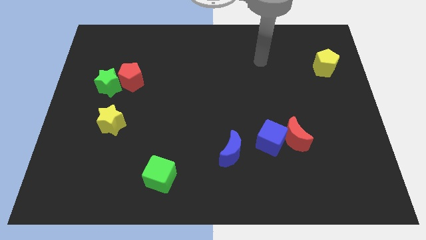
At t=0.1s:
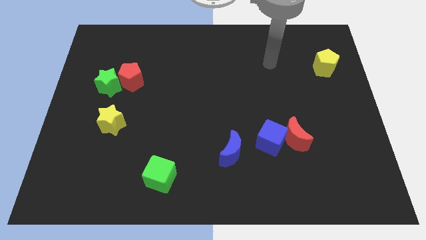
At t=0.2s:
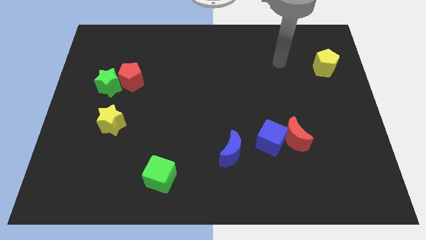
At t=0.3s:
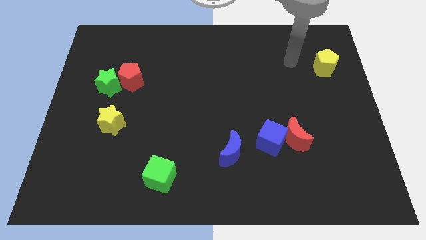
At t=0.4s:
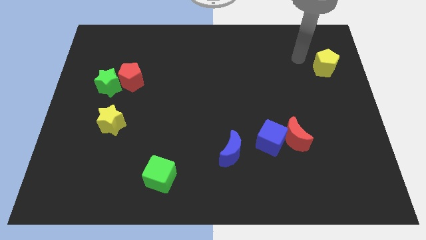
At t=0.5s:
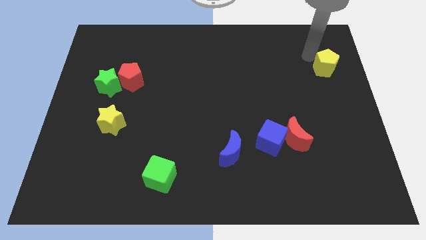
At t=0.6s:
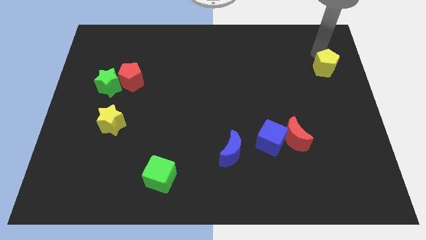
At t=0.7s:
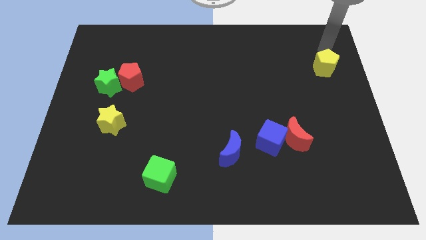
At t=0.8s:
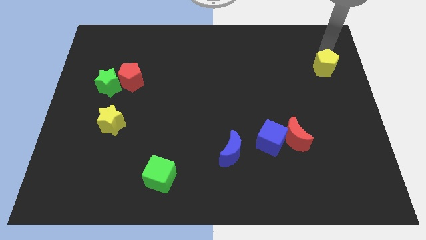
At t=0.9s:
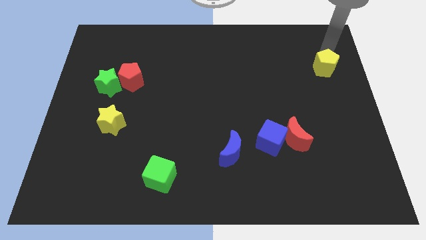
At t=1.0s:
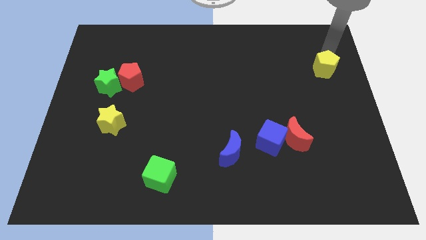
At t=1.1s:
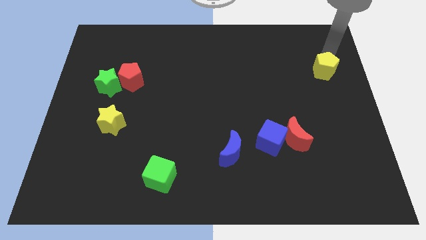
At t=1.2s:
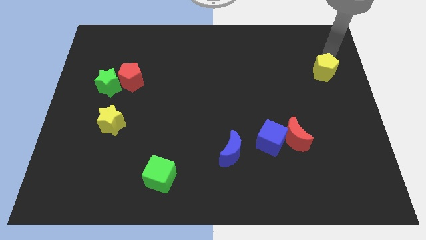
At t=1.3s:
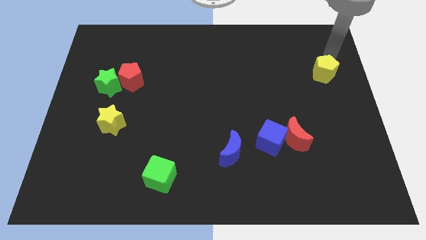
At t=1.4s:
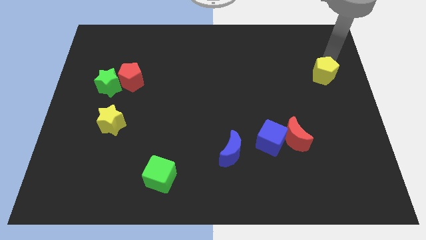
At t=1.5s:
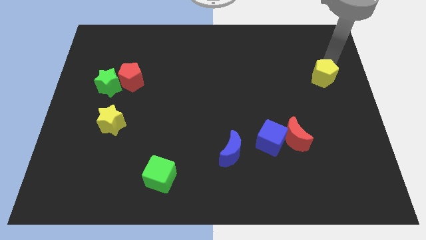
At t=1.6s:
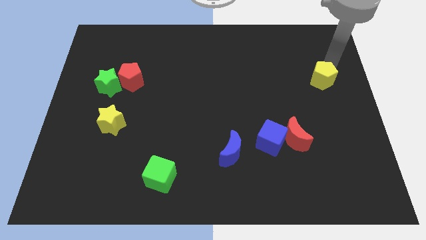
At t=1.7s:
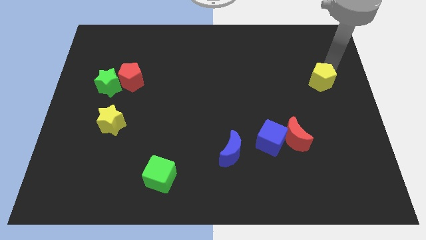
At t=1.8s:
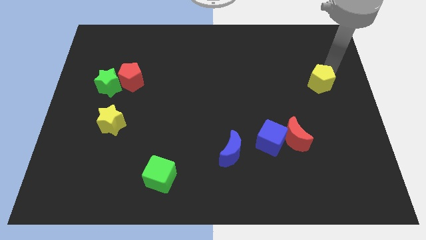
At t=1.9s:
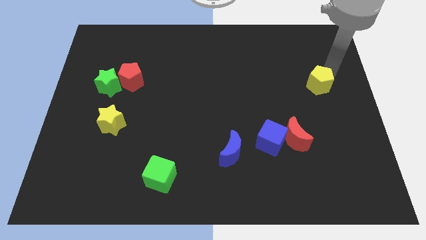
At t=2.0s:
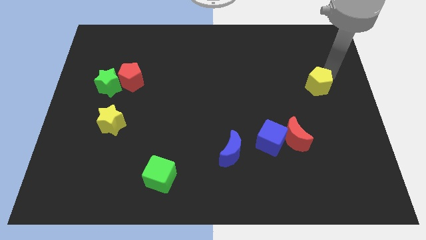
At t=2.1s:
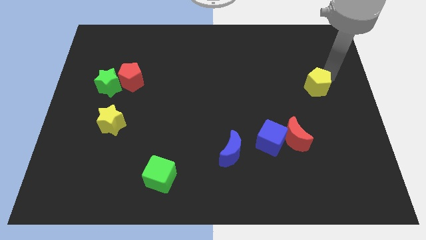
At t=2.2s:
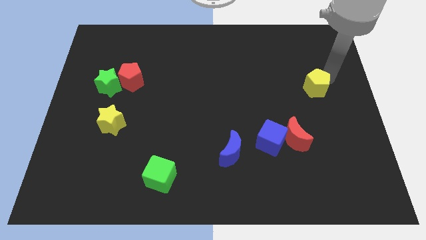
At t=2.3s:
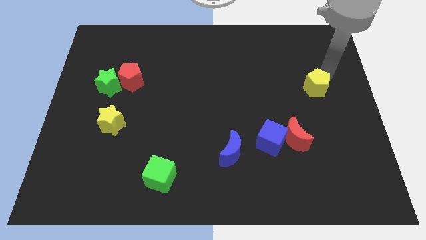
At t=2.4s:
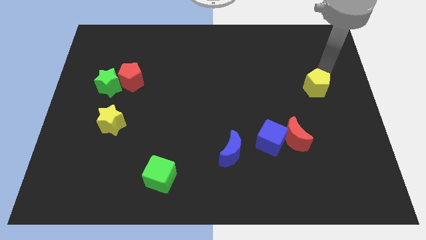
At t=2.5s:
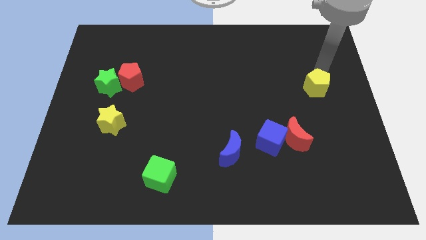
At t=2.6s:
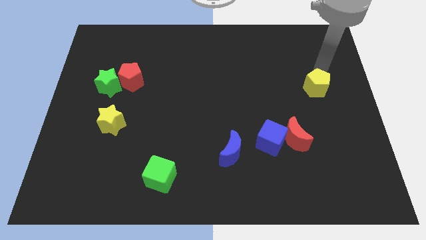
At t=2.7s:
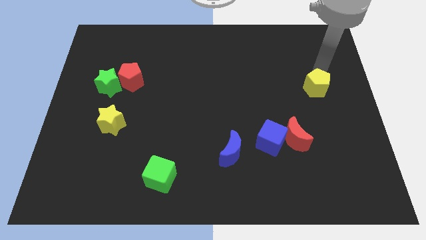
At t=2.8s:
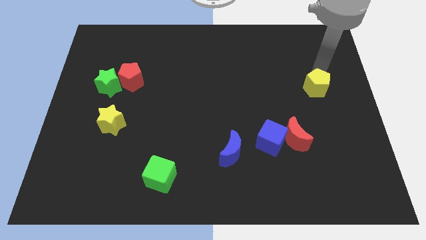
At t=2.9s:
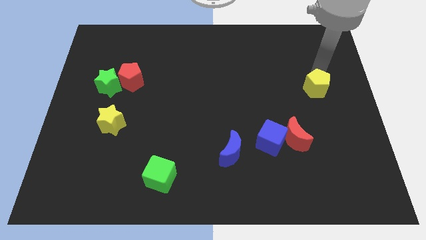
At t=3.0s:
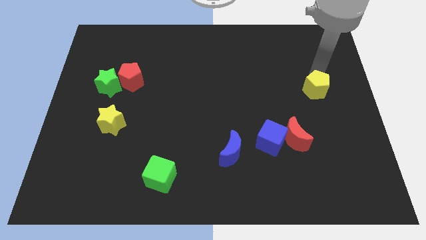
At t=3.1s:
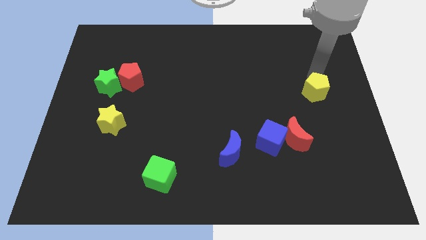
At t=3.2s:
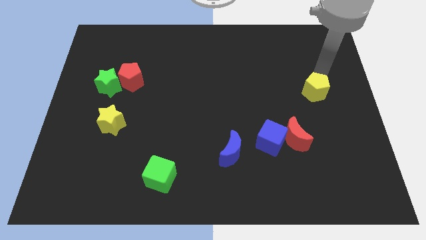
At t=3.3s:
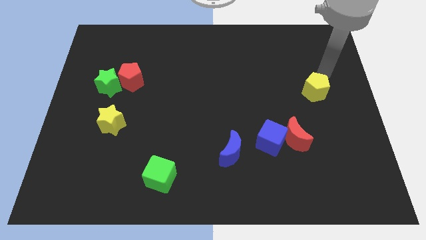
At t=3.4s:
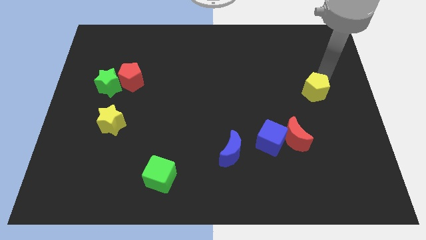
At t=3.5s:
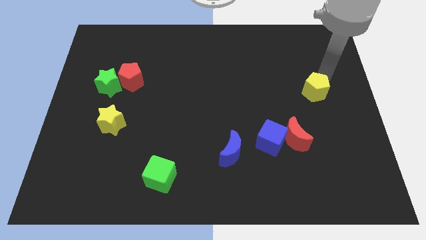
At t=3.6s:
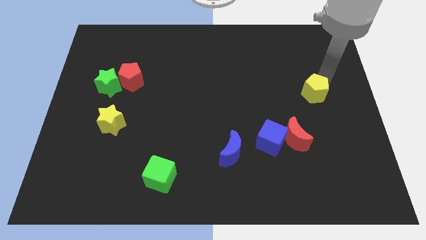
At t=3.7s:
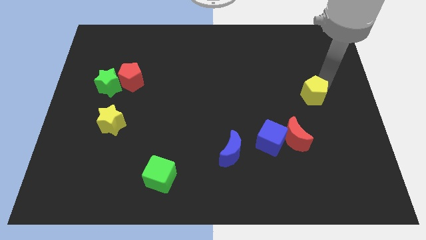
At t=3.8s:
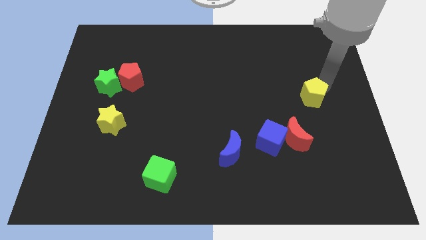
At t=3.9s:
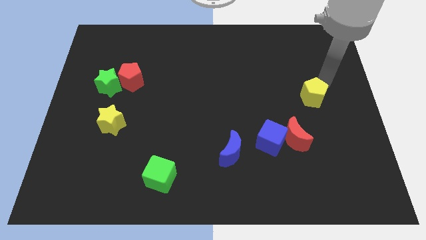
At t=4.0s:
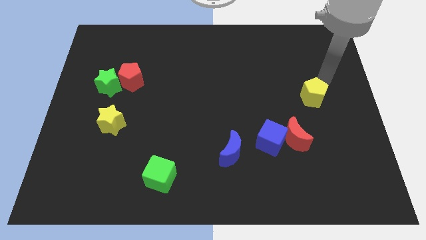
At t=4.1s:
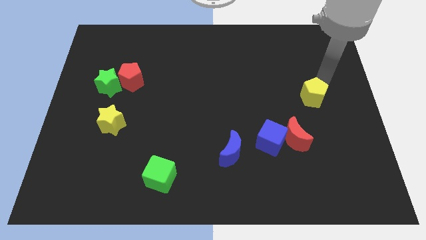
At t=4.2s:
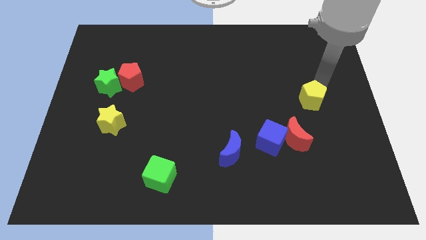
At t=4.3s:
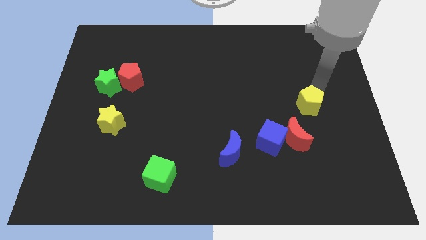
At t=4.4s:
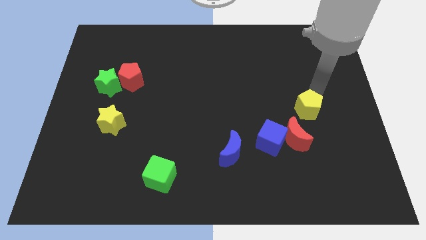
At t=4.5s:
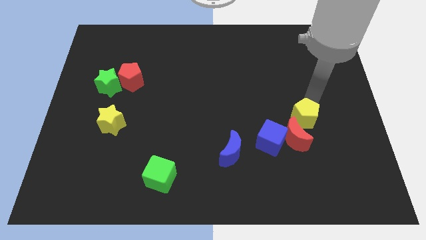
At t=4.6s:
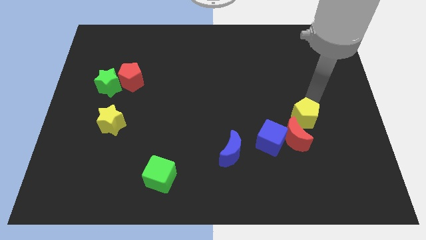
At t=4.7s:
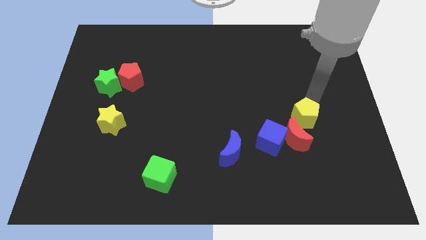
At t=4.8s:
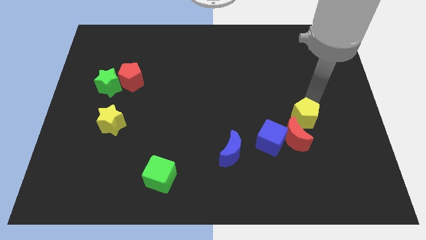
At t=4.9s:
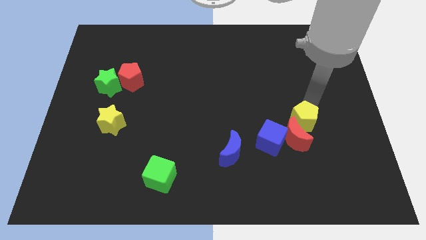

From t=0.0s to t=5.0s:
slide the yellow pentagon next to the red moon

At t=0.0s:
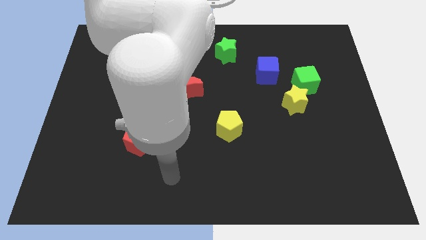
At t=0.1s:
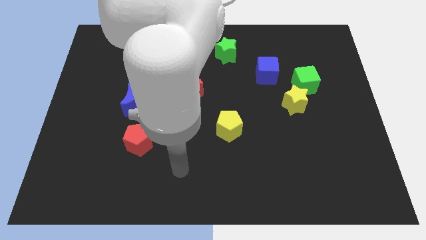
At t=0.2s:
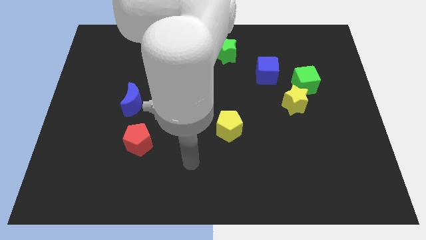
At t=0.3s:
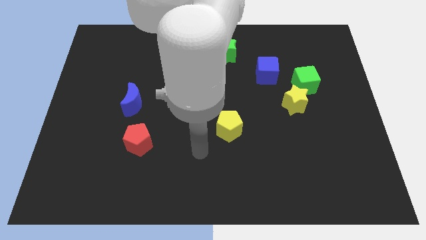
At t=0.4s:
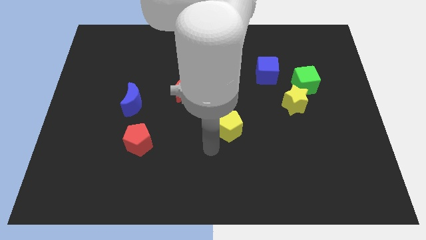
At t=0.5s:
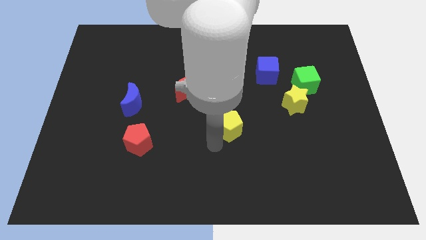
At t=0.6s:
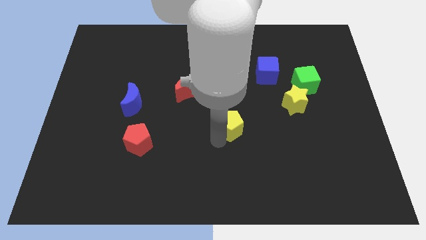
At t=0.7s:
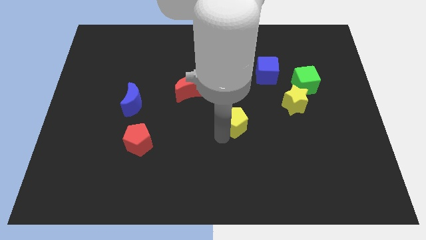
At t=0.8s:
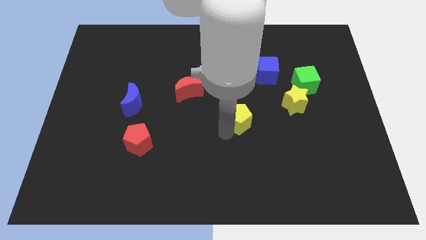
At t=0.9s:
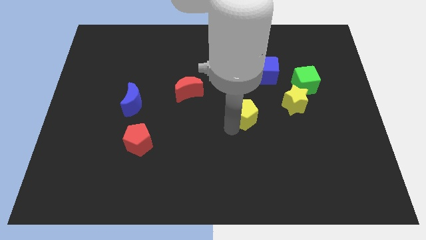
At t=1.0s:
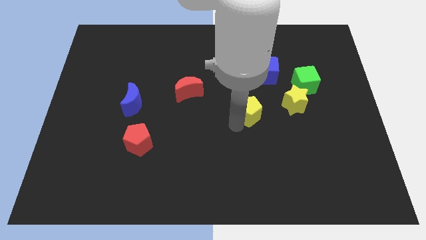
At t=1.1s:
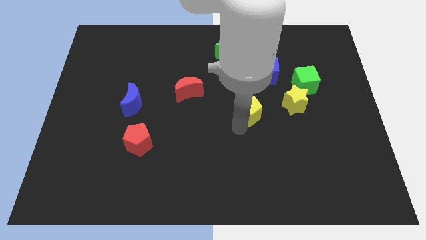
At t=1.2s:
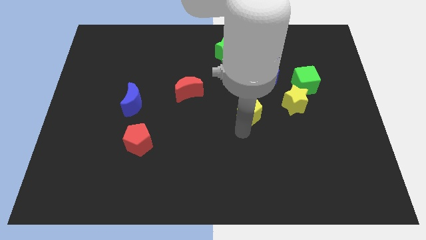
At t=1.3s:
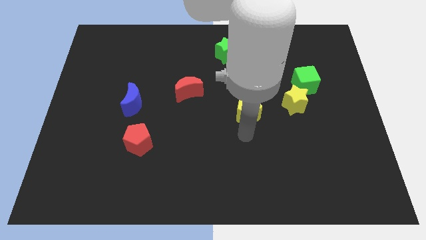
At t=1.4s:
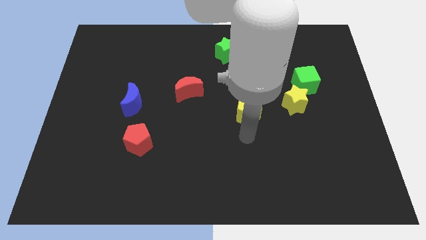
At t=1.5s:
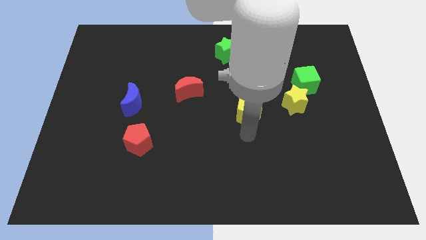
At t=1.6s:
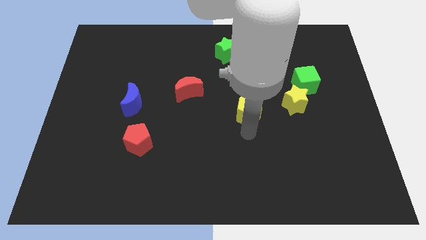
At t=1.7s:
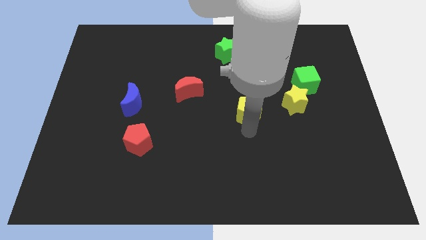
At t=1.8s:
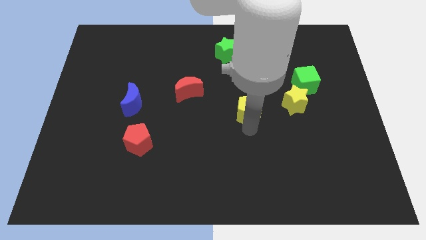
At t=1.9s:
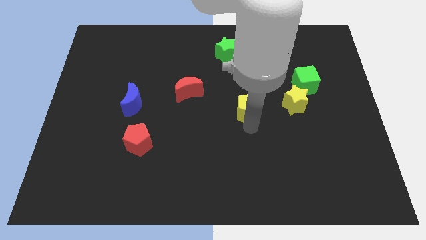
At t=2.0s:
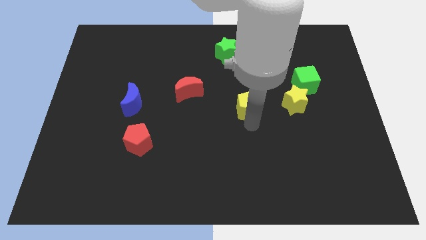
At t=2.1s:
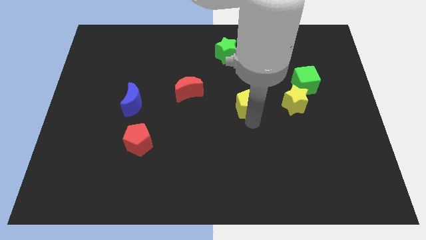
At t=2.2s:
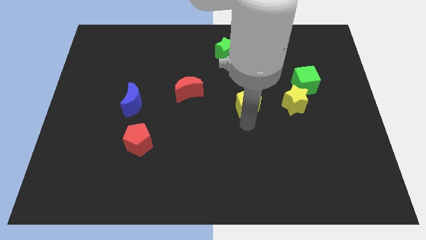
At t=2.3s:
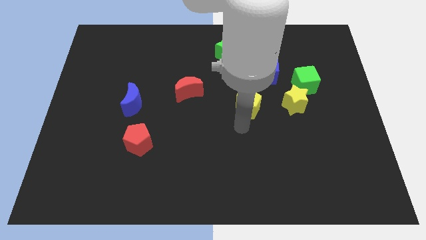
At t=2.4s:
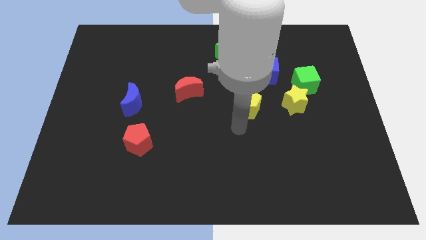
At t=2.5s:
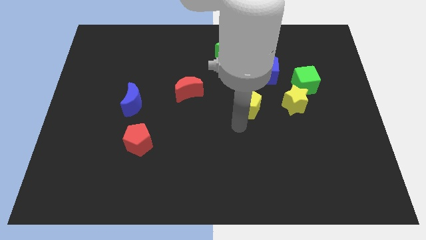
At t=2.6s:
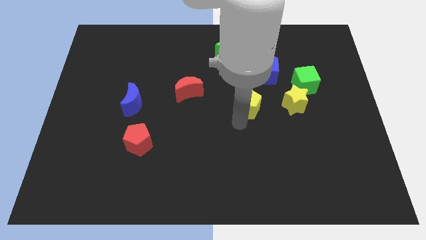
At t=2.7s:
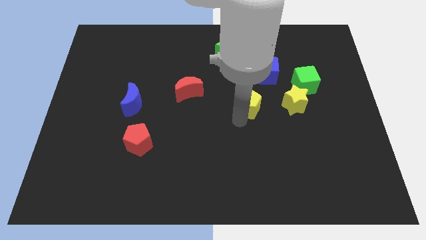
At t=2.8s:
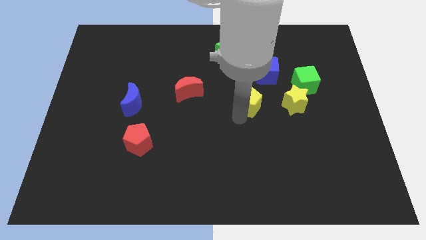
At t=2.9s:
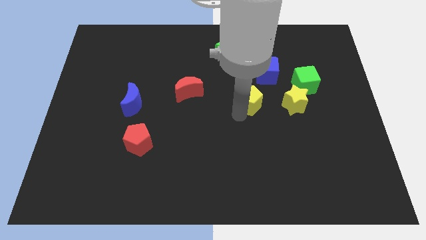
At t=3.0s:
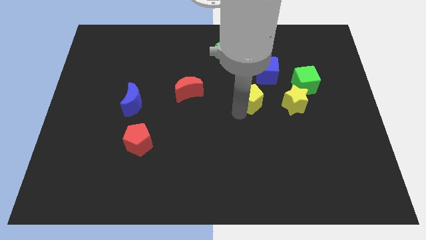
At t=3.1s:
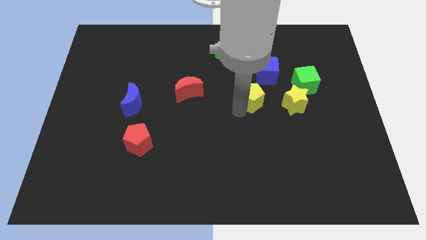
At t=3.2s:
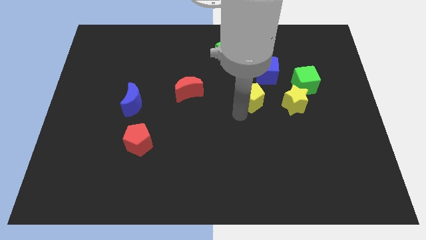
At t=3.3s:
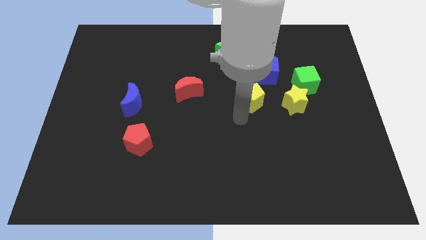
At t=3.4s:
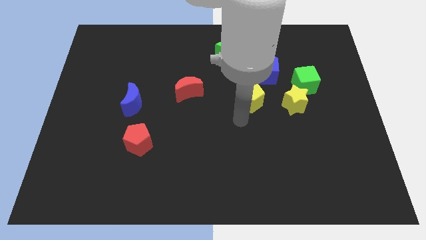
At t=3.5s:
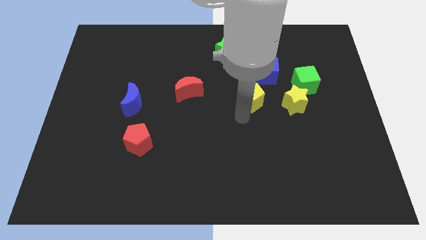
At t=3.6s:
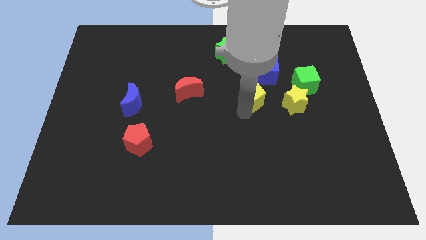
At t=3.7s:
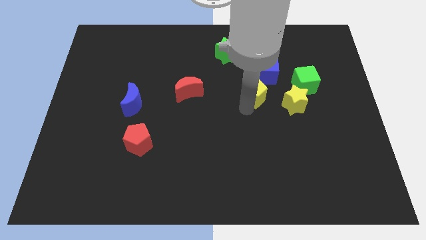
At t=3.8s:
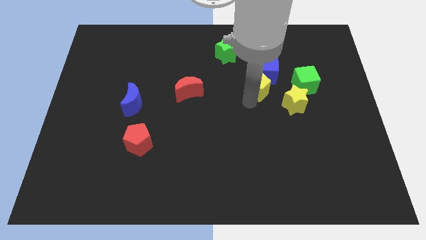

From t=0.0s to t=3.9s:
put the yellow pentagon towards the blue cube
